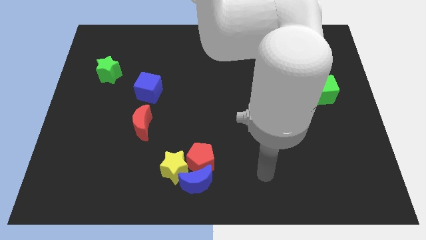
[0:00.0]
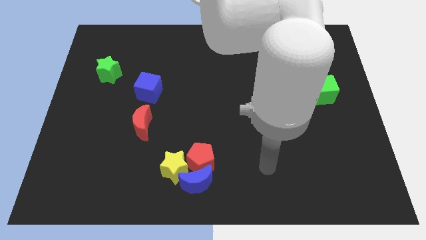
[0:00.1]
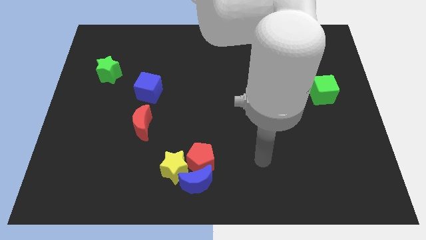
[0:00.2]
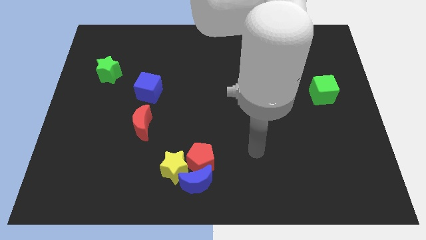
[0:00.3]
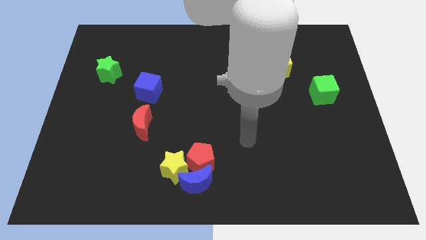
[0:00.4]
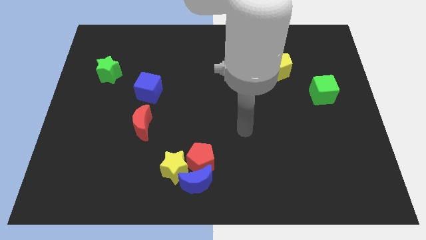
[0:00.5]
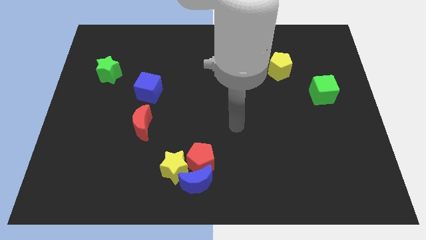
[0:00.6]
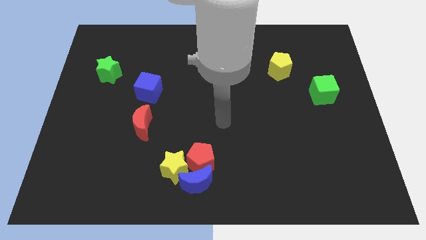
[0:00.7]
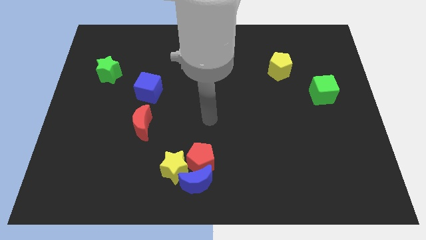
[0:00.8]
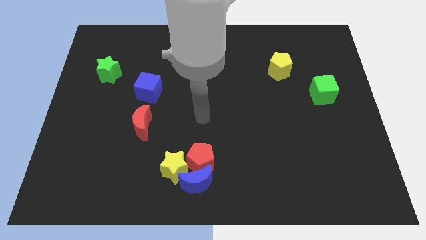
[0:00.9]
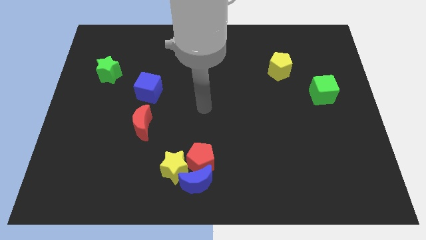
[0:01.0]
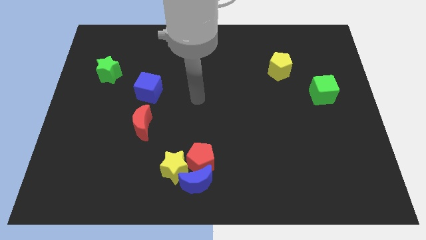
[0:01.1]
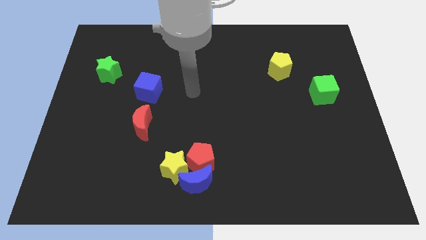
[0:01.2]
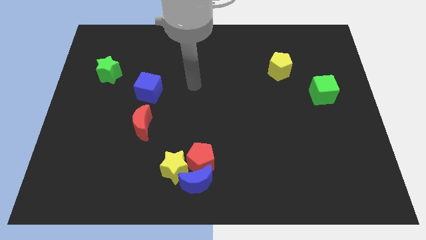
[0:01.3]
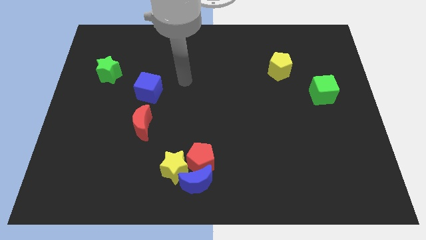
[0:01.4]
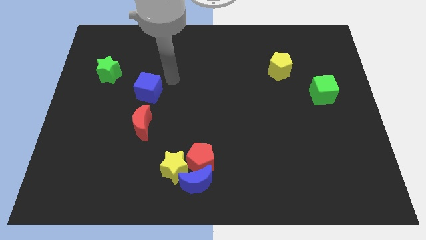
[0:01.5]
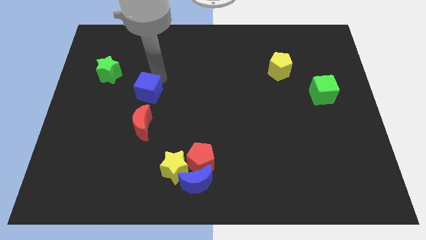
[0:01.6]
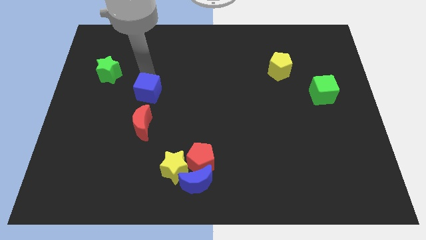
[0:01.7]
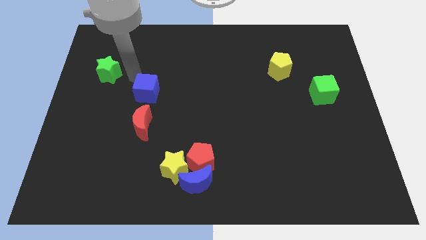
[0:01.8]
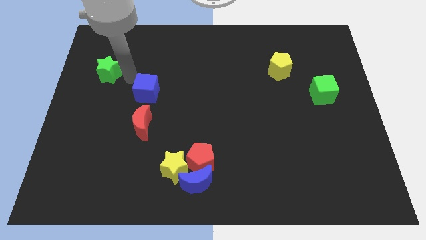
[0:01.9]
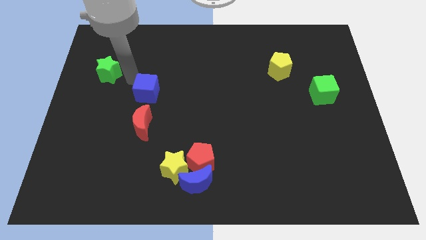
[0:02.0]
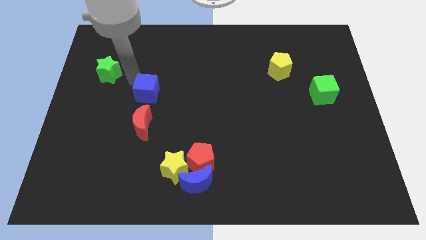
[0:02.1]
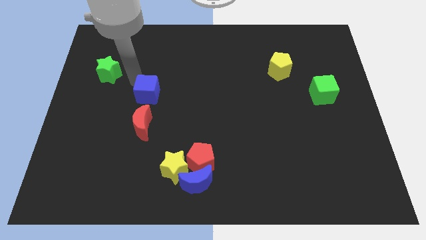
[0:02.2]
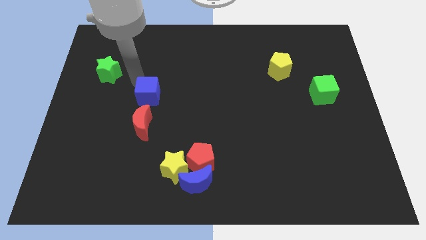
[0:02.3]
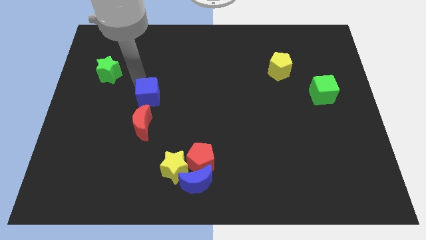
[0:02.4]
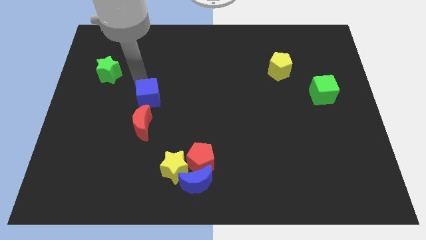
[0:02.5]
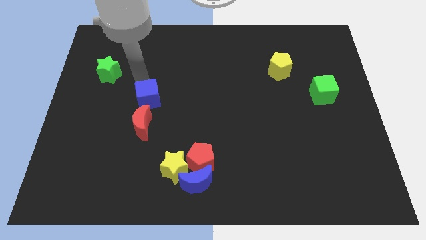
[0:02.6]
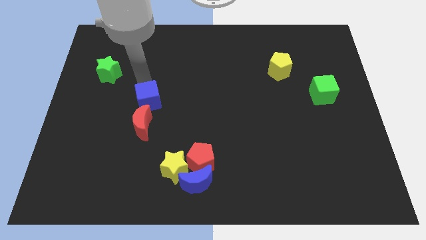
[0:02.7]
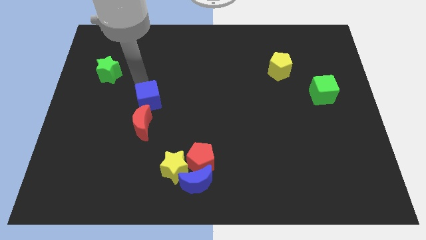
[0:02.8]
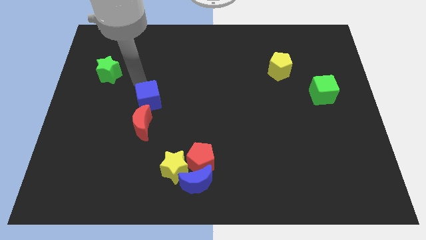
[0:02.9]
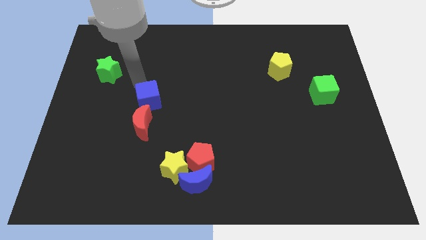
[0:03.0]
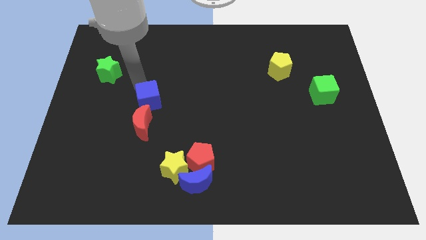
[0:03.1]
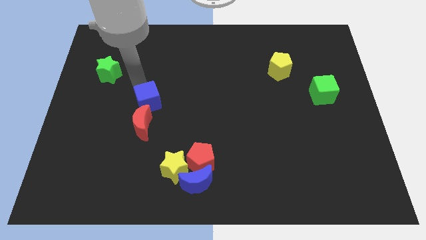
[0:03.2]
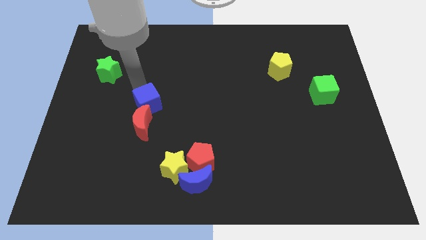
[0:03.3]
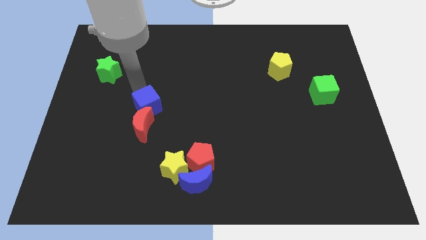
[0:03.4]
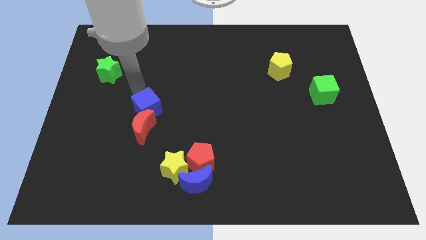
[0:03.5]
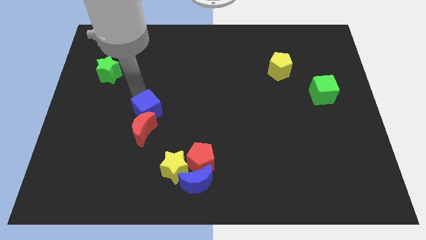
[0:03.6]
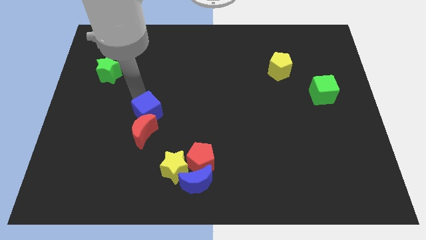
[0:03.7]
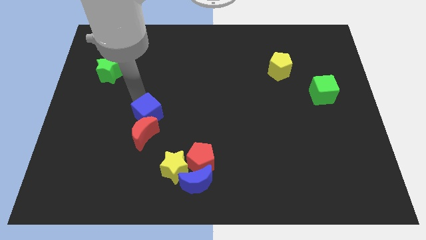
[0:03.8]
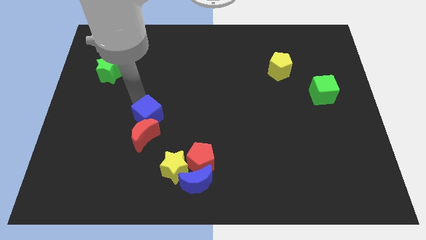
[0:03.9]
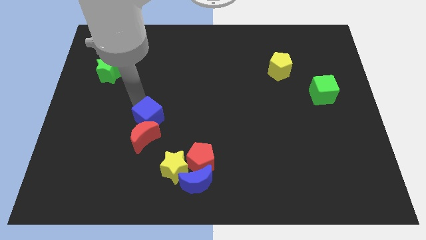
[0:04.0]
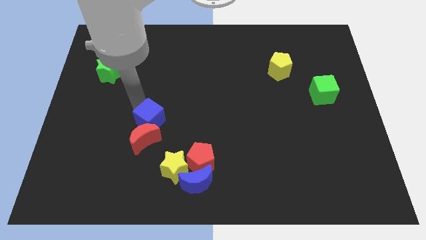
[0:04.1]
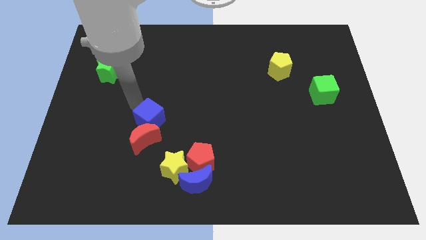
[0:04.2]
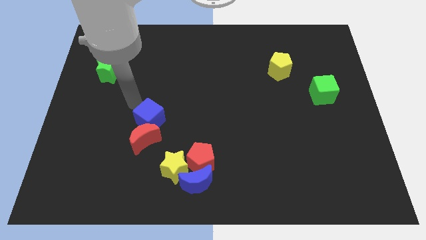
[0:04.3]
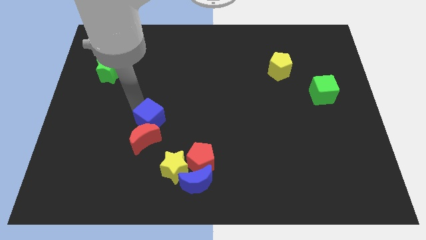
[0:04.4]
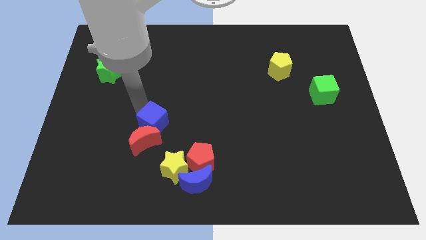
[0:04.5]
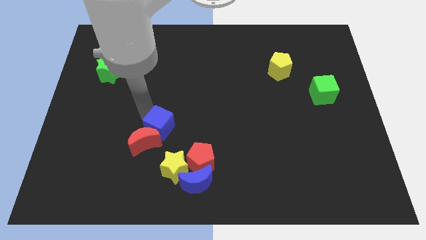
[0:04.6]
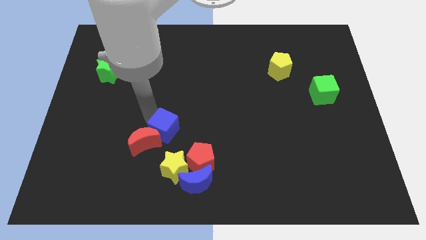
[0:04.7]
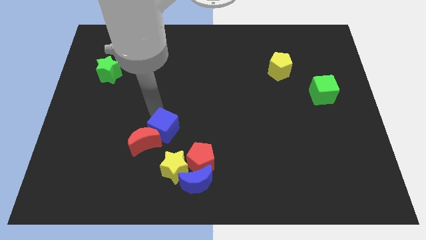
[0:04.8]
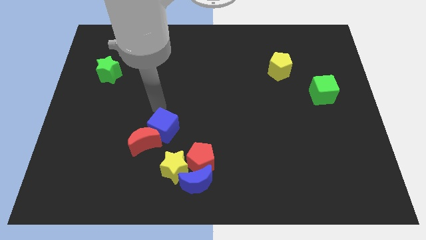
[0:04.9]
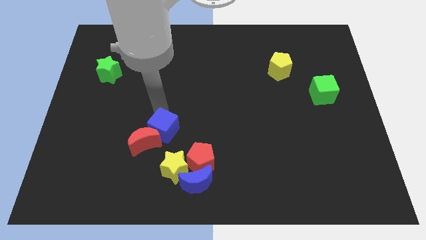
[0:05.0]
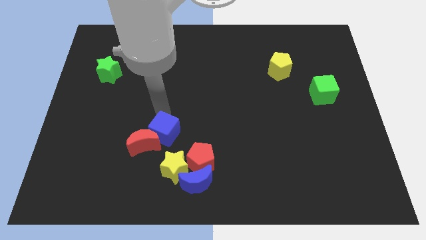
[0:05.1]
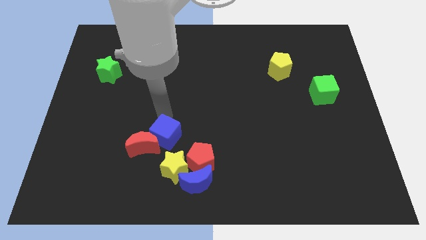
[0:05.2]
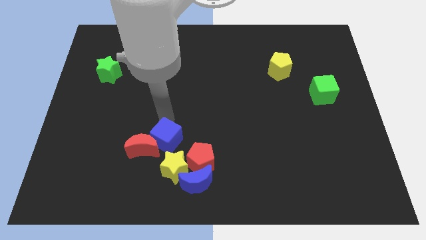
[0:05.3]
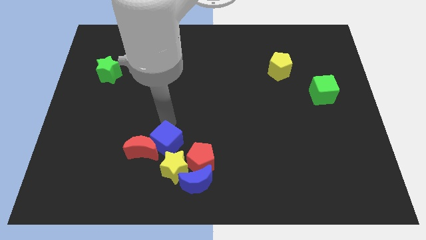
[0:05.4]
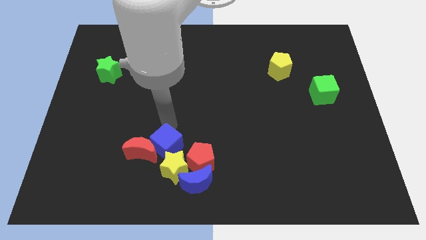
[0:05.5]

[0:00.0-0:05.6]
move the blue cube next to the yellow star

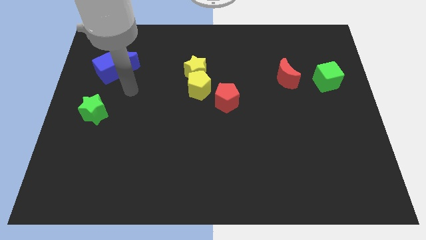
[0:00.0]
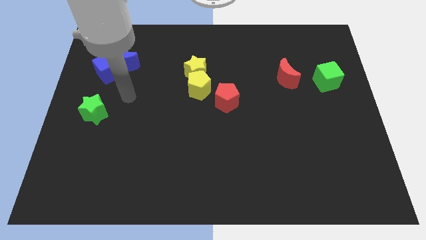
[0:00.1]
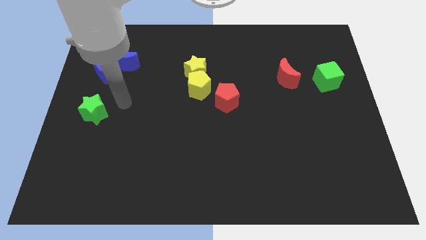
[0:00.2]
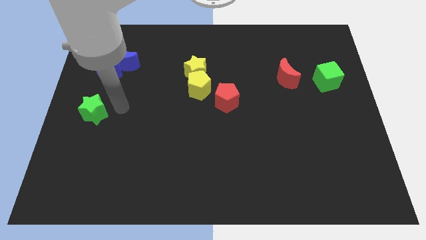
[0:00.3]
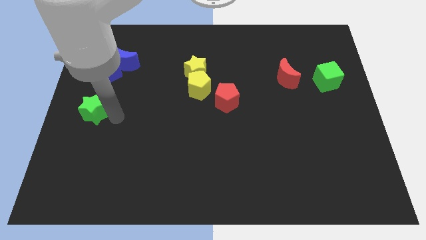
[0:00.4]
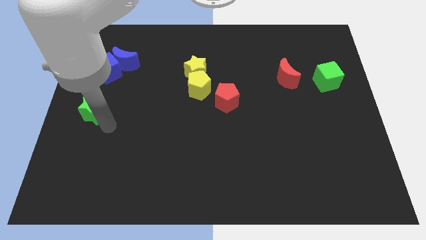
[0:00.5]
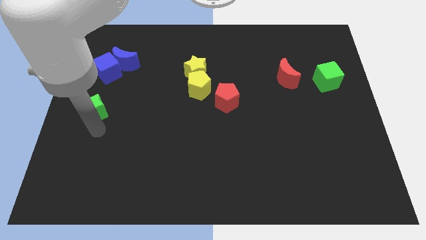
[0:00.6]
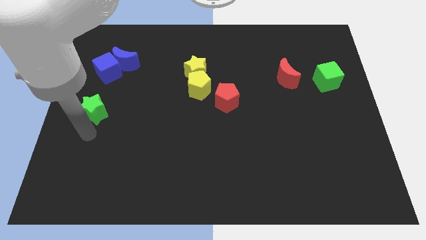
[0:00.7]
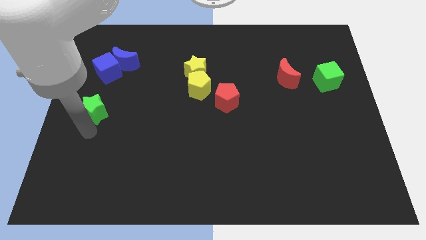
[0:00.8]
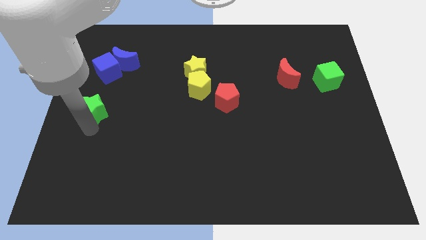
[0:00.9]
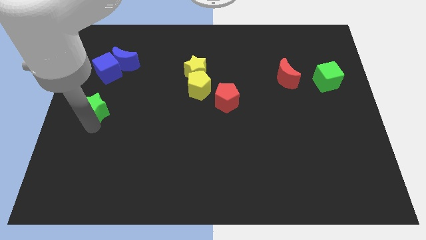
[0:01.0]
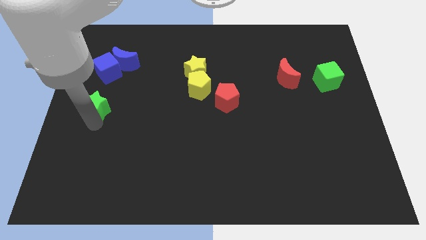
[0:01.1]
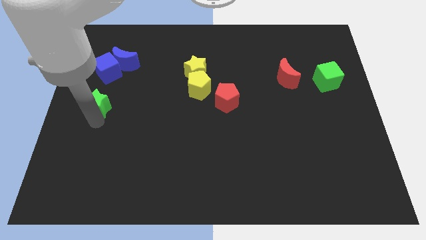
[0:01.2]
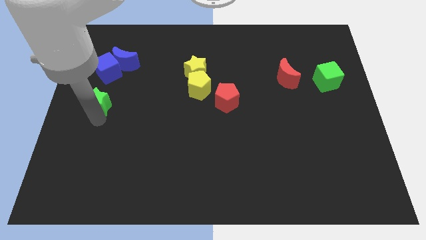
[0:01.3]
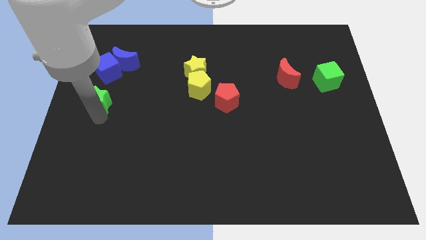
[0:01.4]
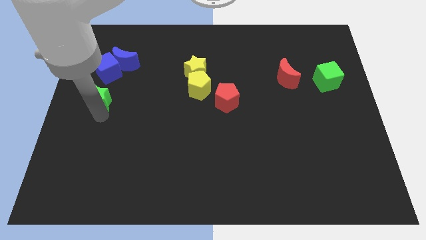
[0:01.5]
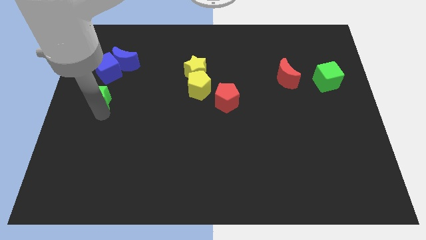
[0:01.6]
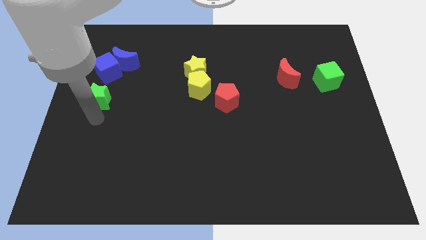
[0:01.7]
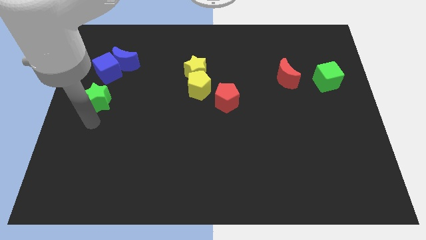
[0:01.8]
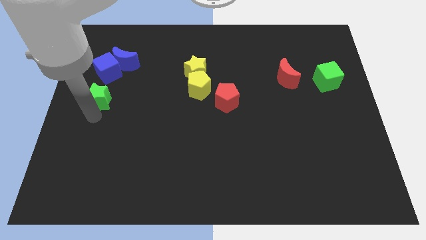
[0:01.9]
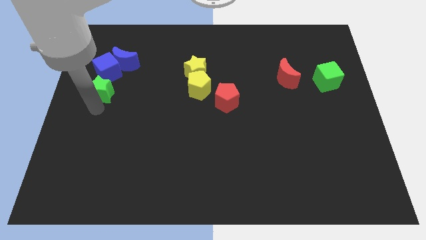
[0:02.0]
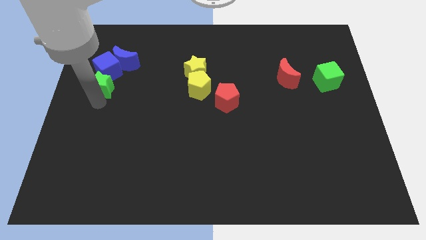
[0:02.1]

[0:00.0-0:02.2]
push the green star to the blue cube

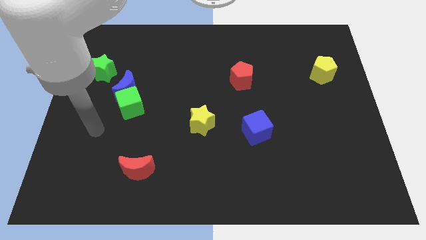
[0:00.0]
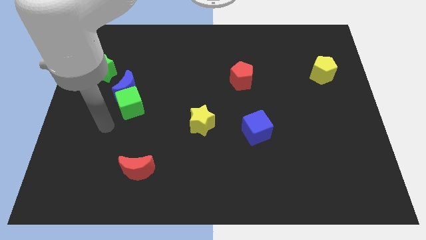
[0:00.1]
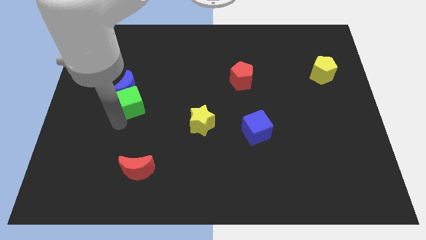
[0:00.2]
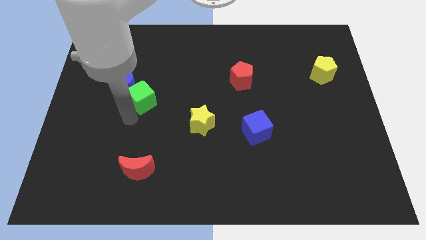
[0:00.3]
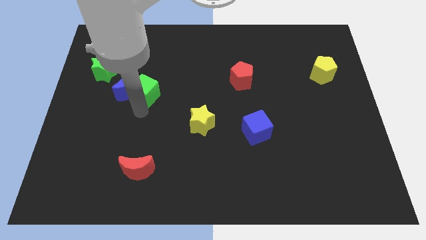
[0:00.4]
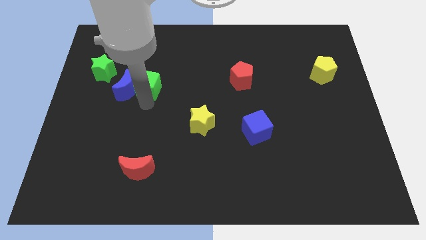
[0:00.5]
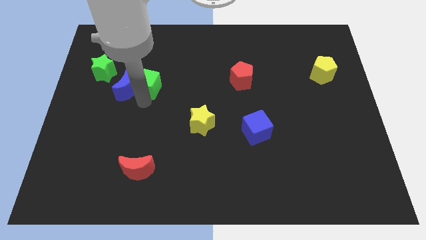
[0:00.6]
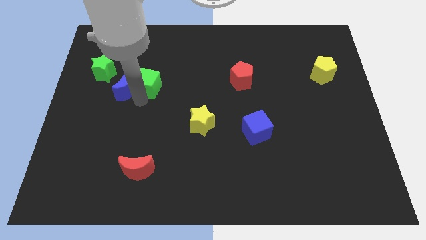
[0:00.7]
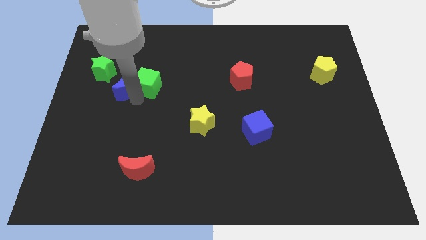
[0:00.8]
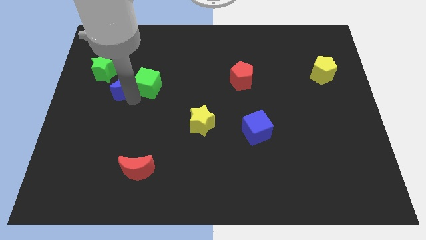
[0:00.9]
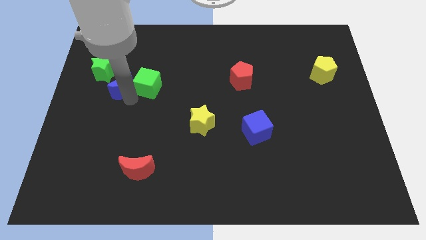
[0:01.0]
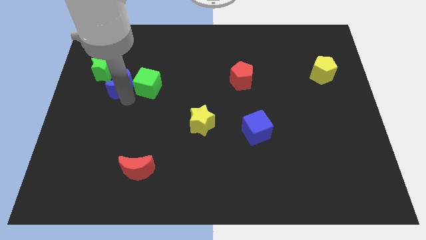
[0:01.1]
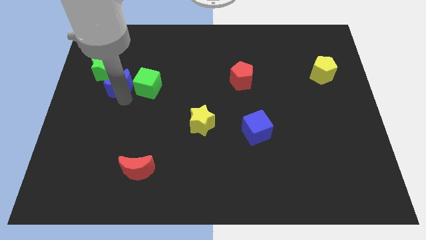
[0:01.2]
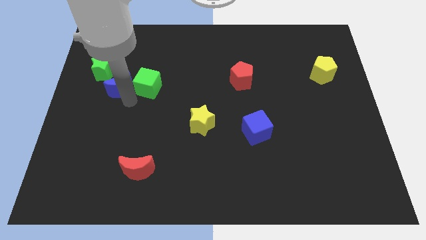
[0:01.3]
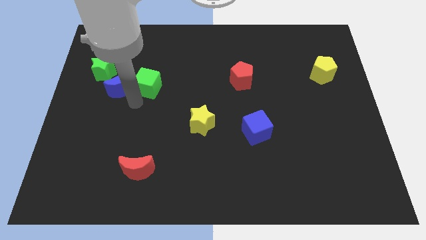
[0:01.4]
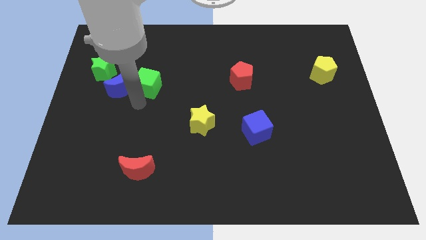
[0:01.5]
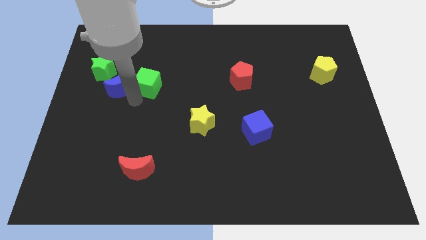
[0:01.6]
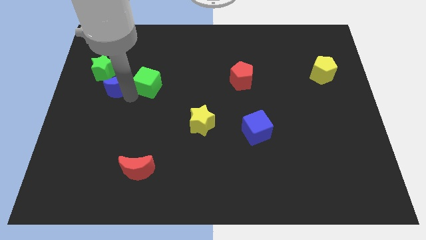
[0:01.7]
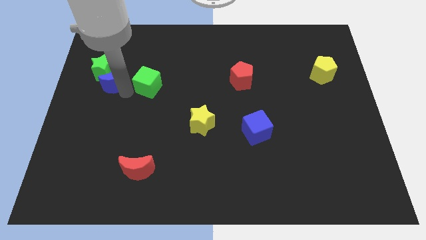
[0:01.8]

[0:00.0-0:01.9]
slide the blue moon towards the green star
